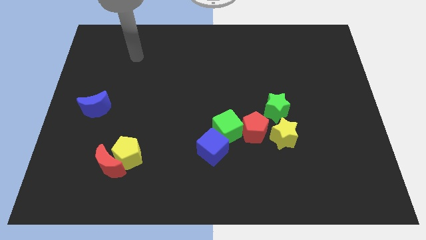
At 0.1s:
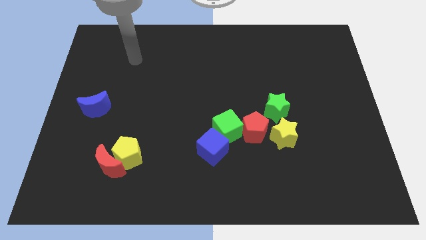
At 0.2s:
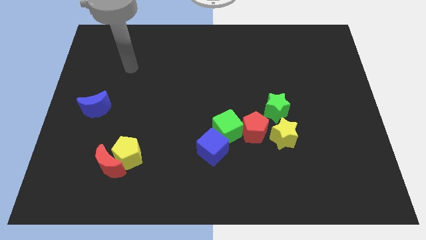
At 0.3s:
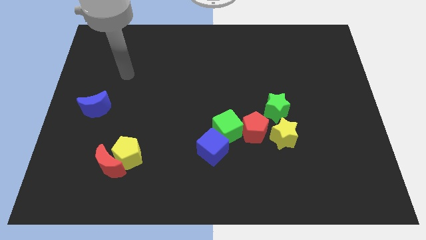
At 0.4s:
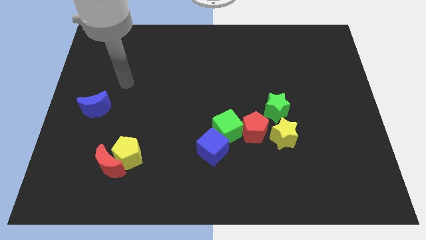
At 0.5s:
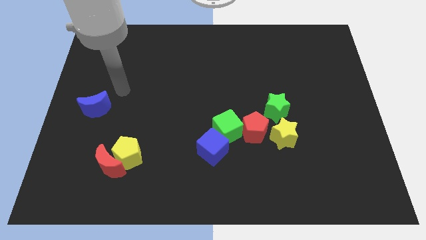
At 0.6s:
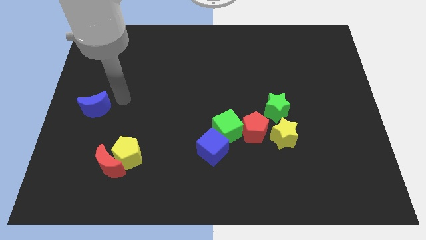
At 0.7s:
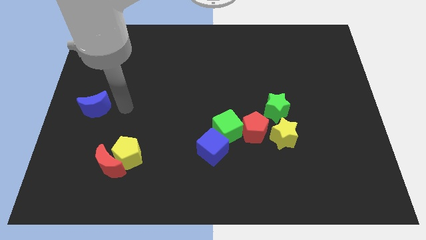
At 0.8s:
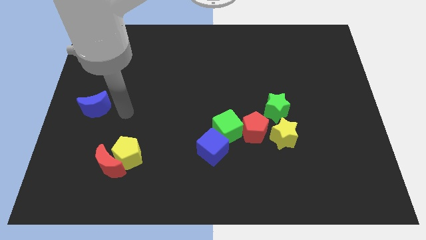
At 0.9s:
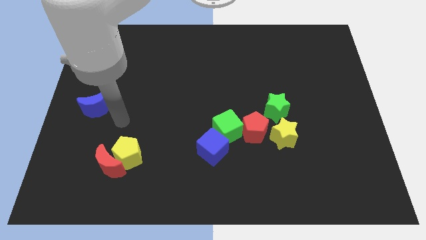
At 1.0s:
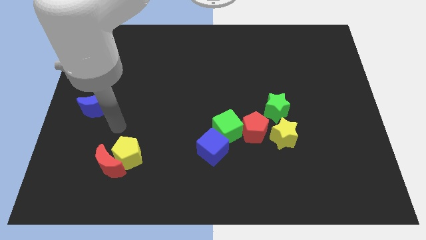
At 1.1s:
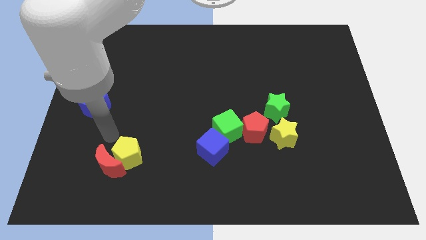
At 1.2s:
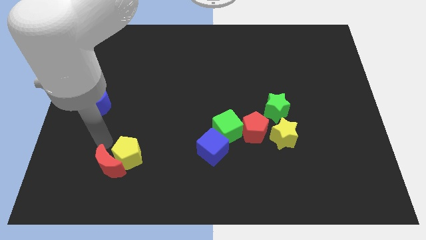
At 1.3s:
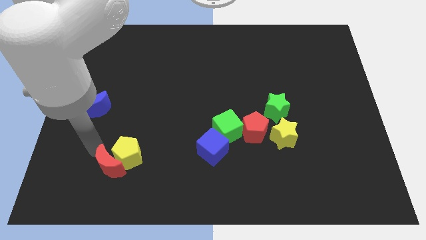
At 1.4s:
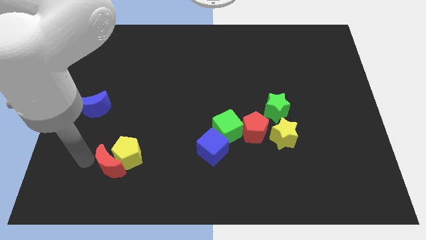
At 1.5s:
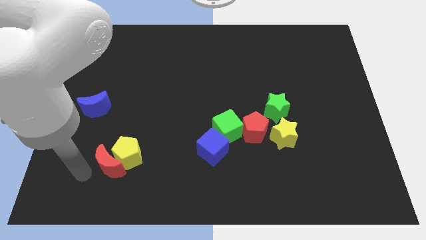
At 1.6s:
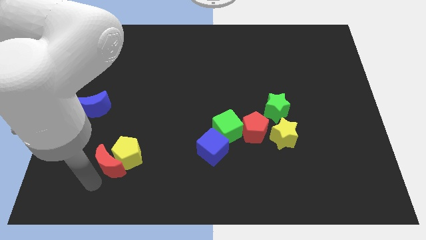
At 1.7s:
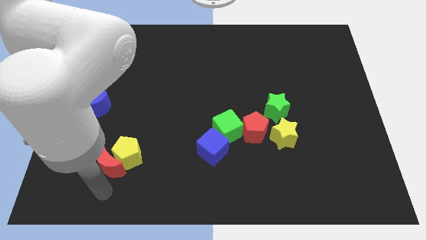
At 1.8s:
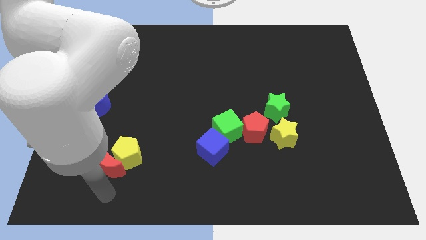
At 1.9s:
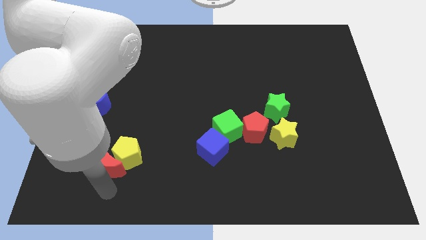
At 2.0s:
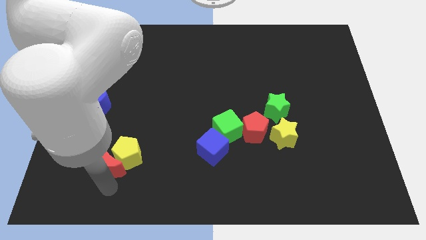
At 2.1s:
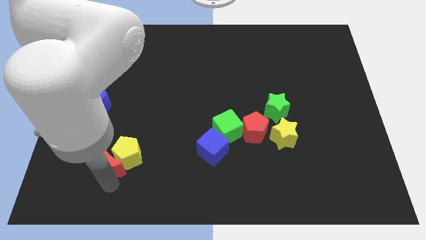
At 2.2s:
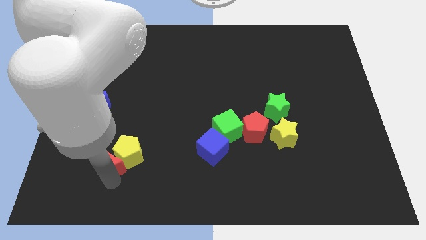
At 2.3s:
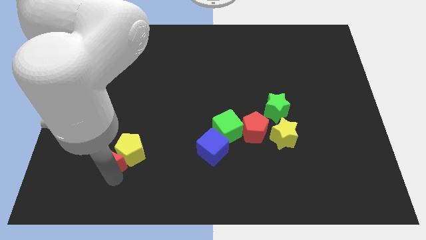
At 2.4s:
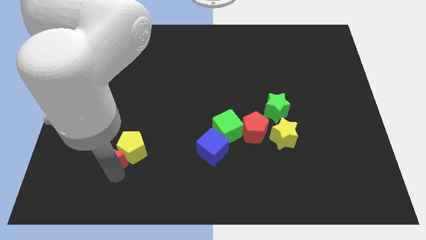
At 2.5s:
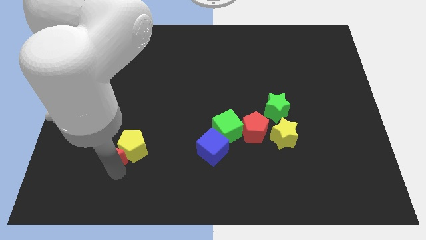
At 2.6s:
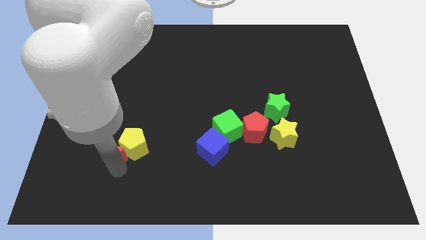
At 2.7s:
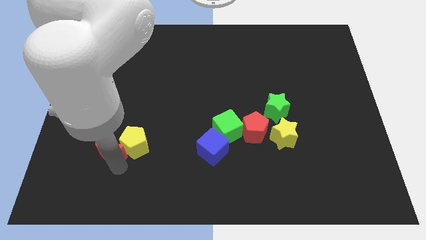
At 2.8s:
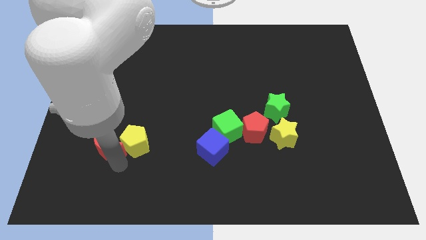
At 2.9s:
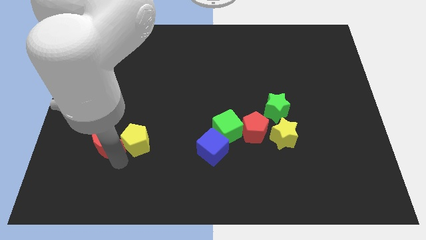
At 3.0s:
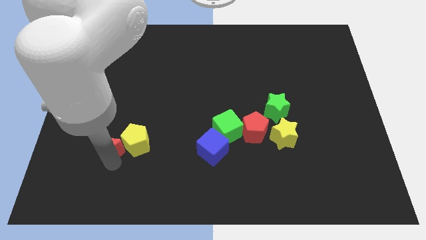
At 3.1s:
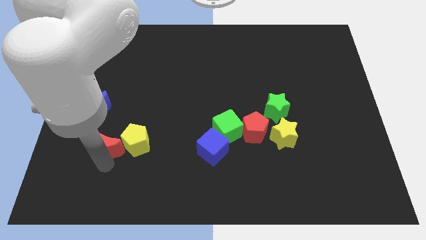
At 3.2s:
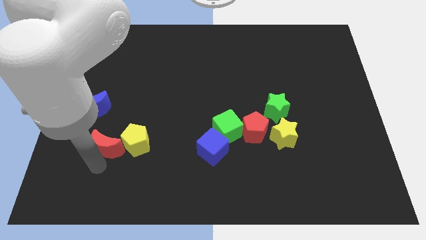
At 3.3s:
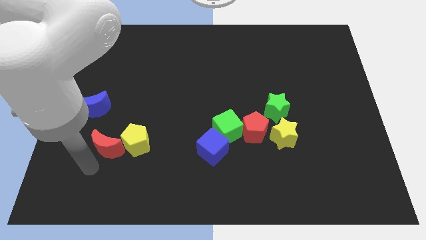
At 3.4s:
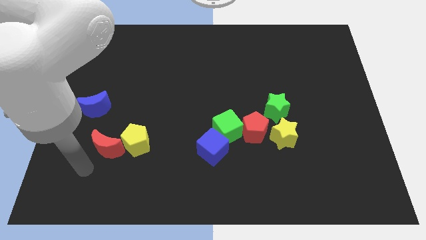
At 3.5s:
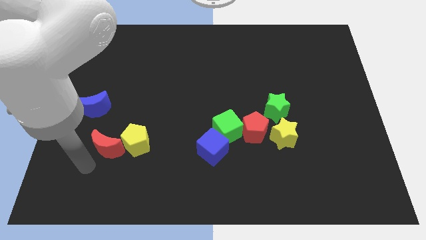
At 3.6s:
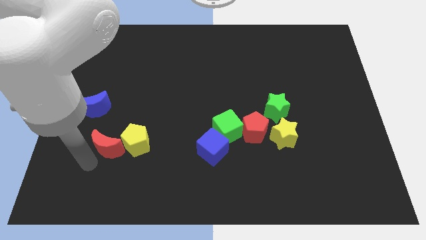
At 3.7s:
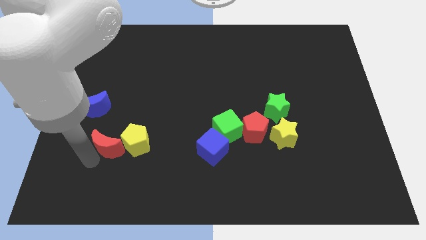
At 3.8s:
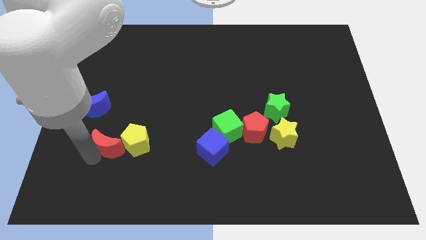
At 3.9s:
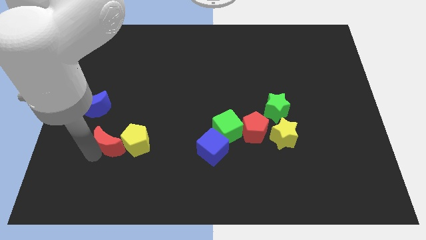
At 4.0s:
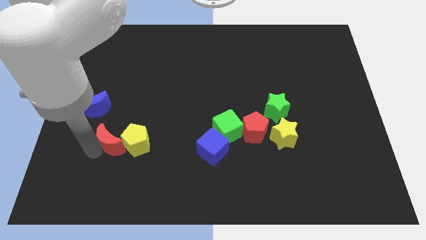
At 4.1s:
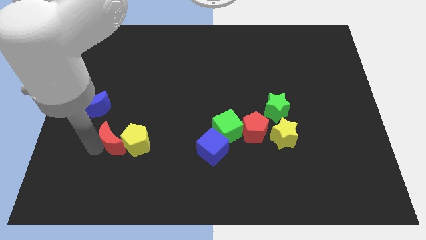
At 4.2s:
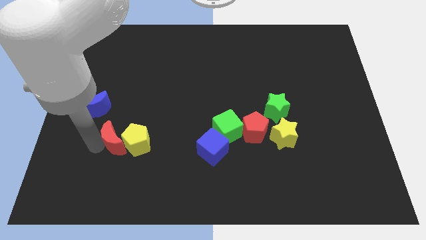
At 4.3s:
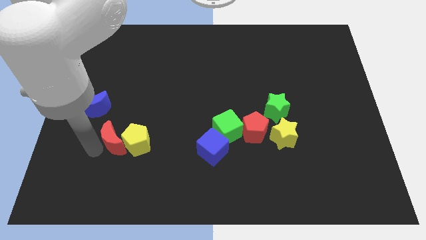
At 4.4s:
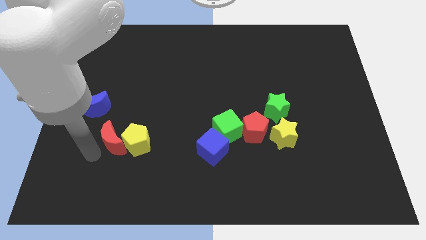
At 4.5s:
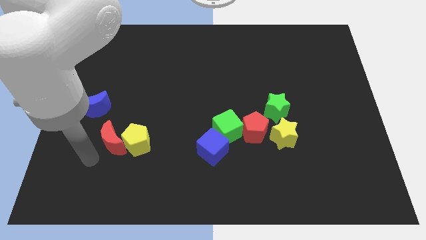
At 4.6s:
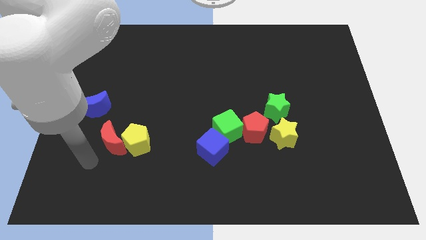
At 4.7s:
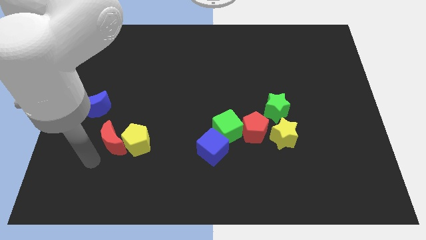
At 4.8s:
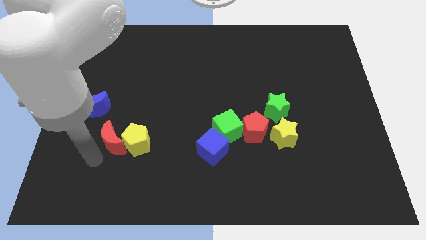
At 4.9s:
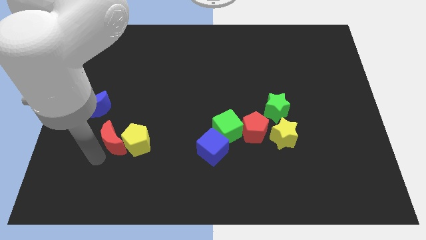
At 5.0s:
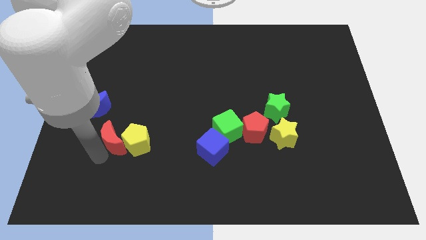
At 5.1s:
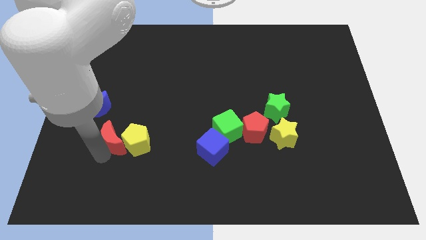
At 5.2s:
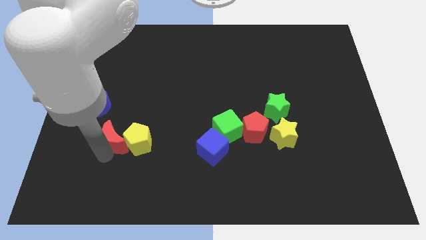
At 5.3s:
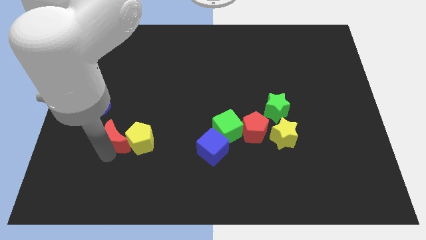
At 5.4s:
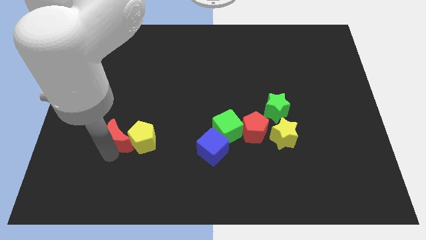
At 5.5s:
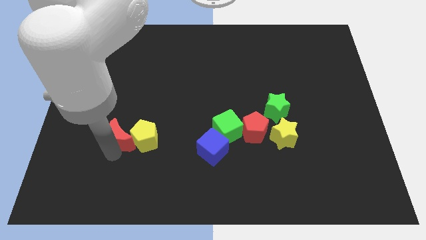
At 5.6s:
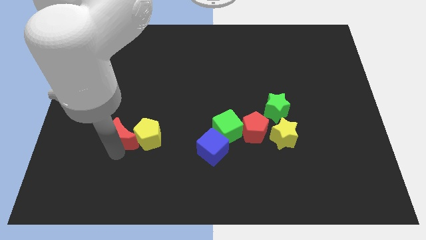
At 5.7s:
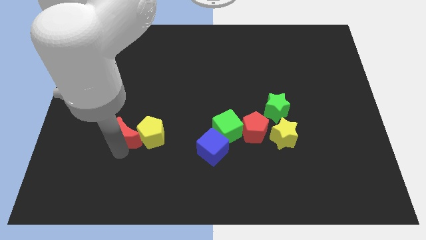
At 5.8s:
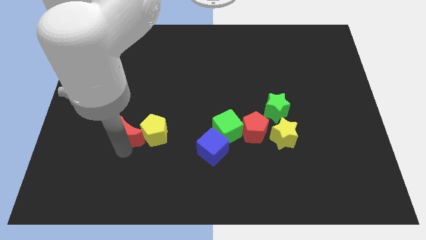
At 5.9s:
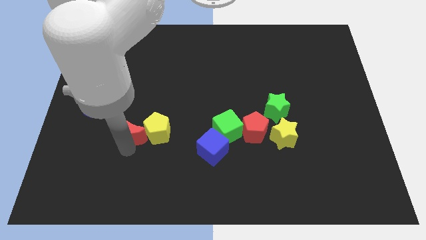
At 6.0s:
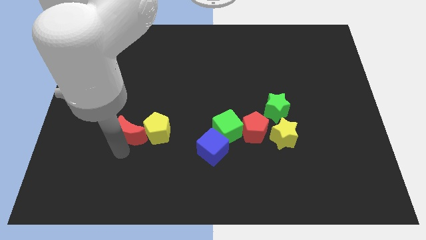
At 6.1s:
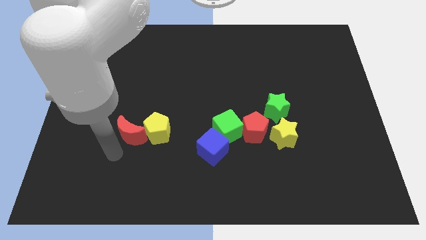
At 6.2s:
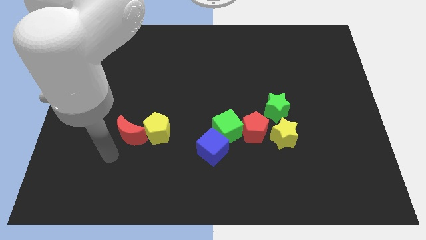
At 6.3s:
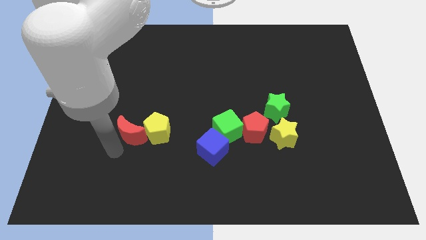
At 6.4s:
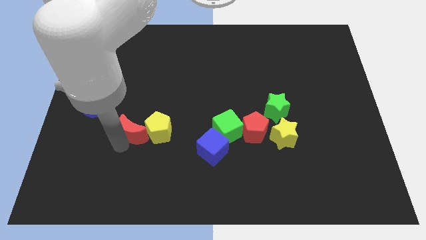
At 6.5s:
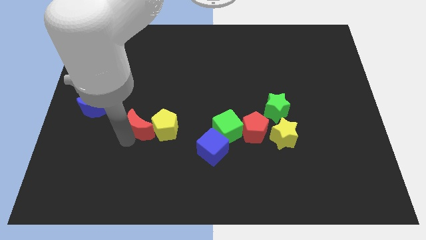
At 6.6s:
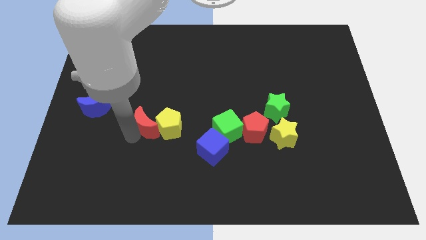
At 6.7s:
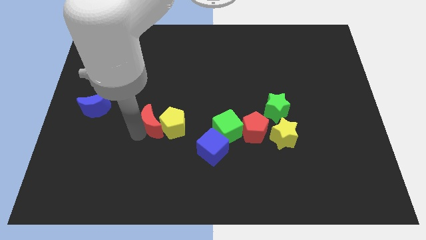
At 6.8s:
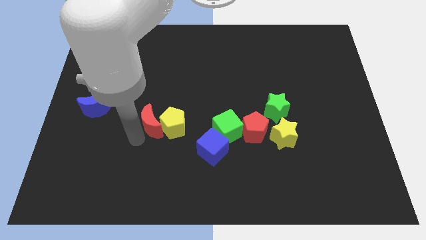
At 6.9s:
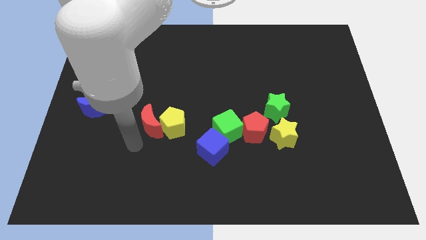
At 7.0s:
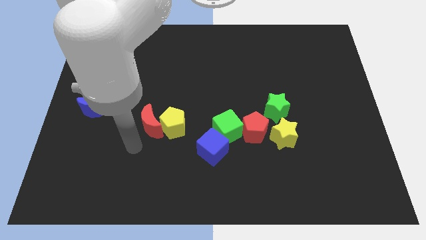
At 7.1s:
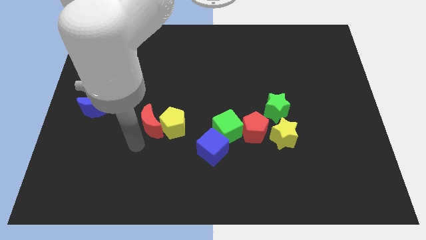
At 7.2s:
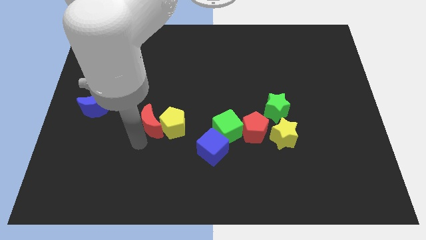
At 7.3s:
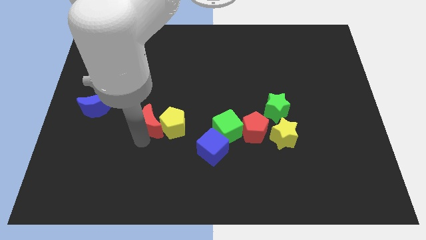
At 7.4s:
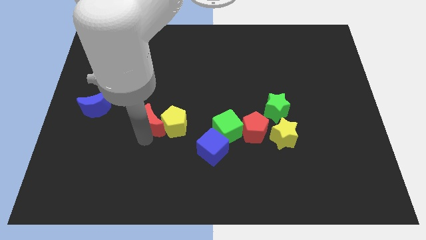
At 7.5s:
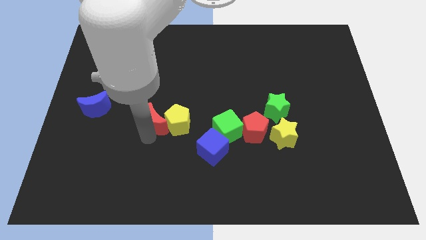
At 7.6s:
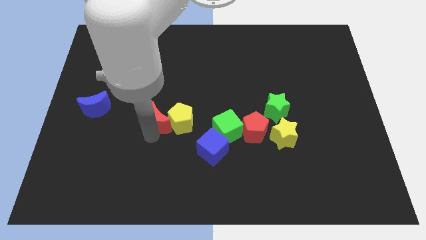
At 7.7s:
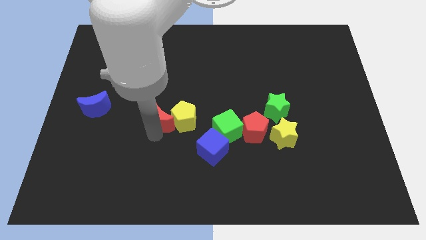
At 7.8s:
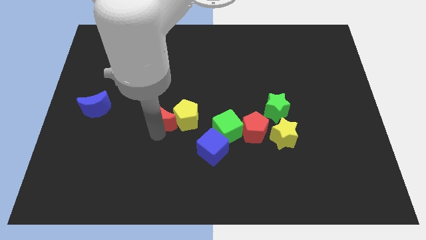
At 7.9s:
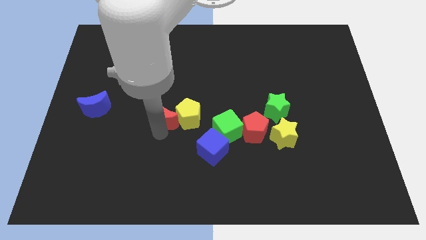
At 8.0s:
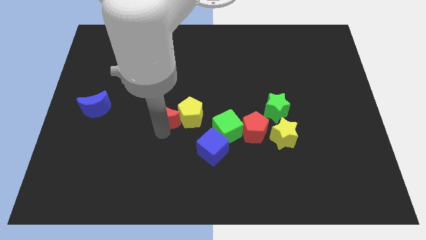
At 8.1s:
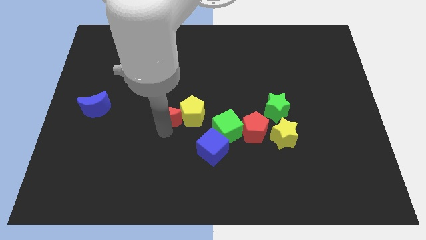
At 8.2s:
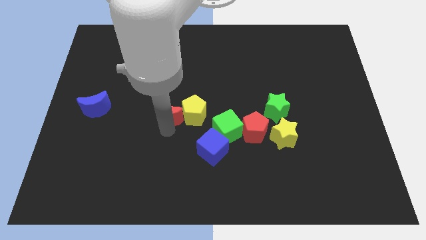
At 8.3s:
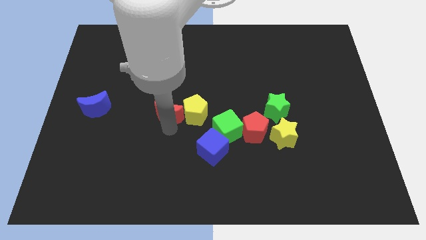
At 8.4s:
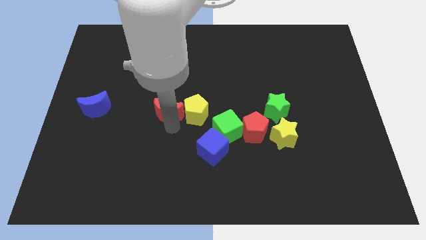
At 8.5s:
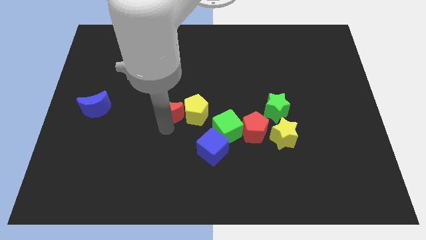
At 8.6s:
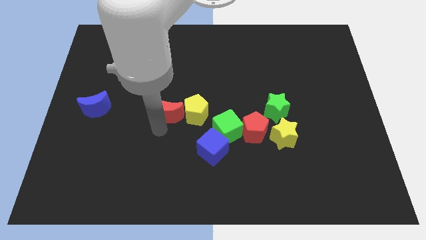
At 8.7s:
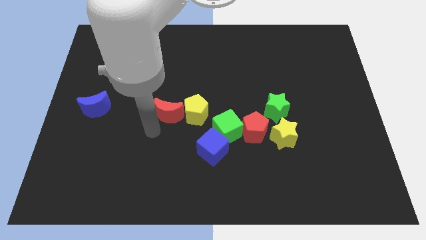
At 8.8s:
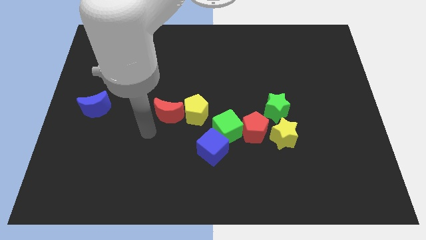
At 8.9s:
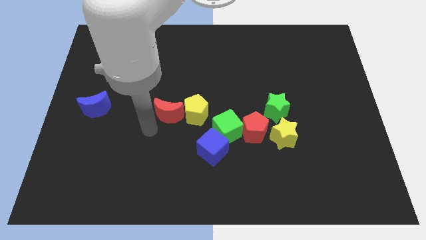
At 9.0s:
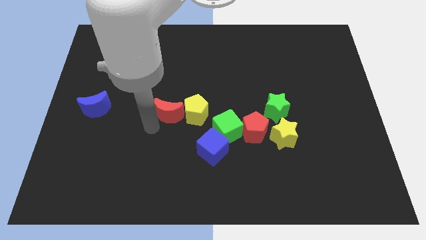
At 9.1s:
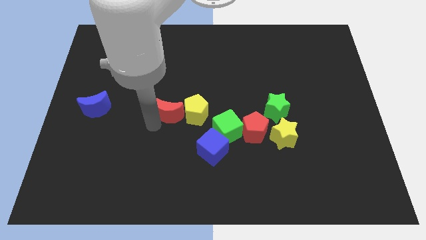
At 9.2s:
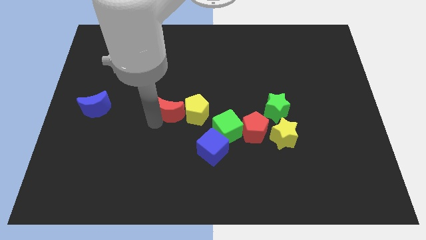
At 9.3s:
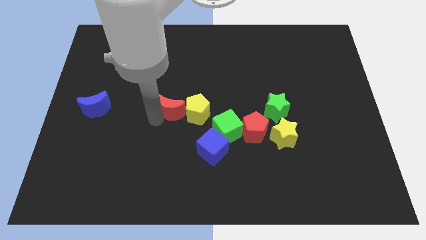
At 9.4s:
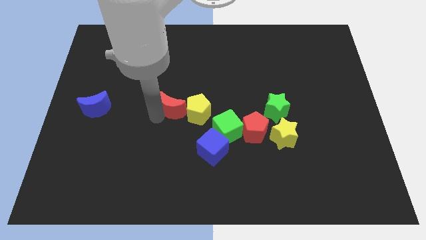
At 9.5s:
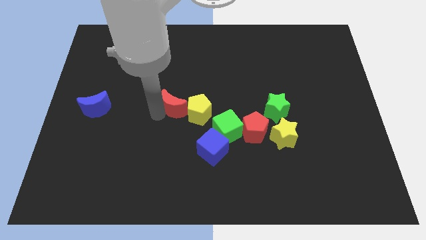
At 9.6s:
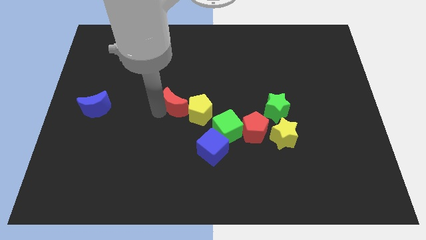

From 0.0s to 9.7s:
push the red moon up and right
